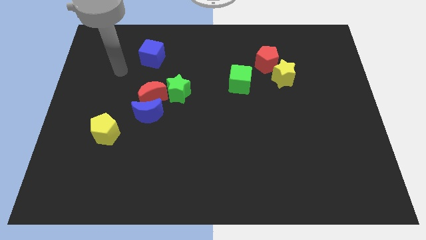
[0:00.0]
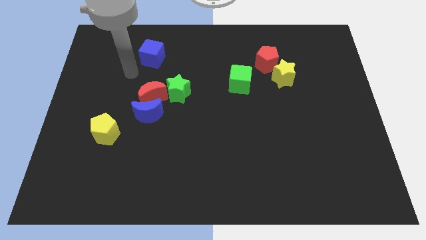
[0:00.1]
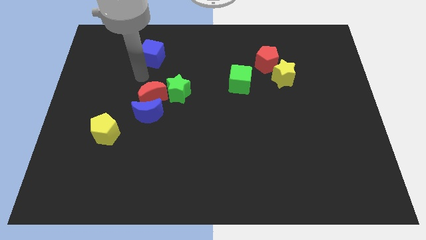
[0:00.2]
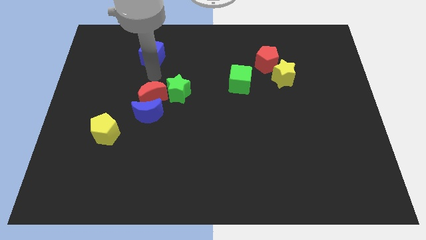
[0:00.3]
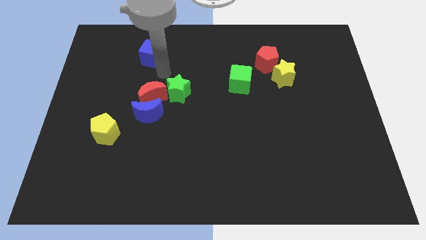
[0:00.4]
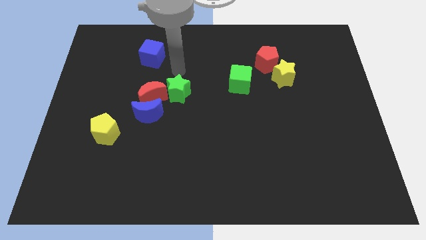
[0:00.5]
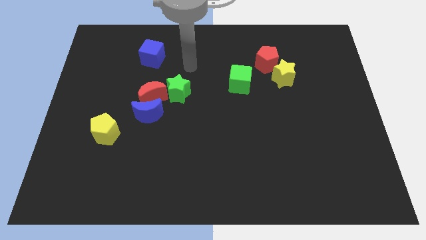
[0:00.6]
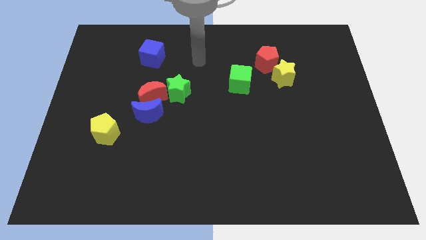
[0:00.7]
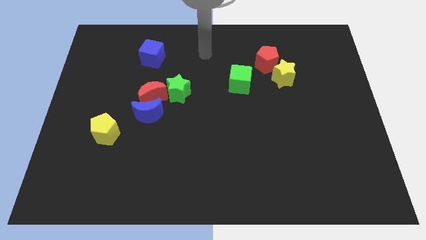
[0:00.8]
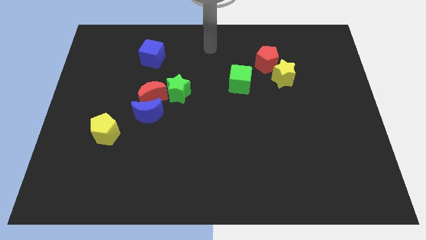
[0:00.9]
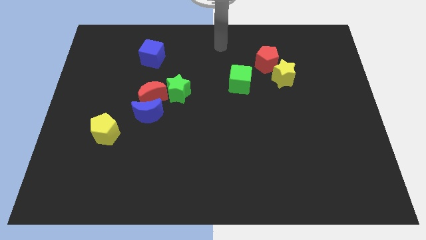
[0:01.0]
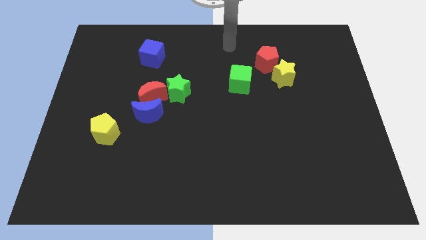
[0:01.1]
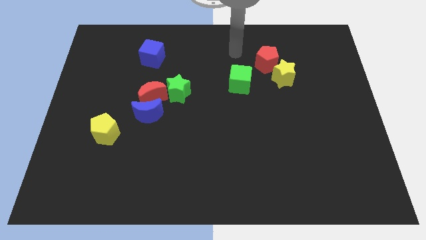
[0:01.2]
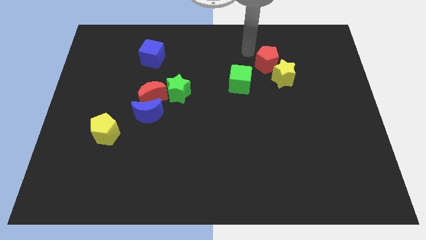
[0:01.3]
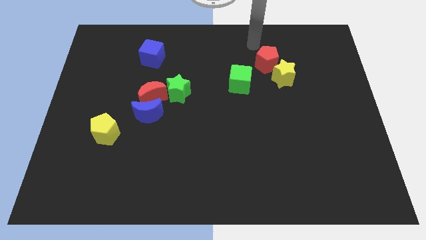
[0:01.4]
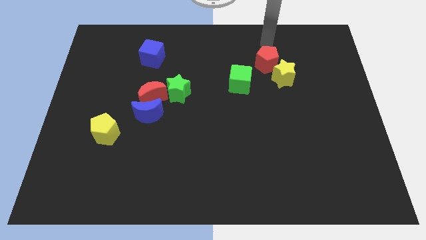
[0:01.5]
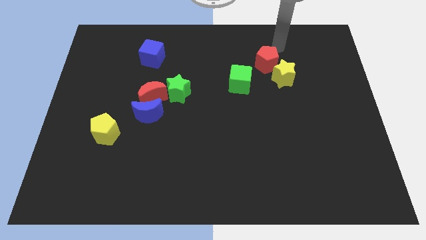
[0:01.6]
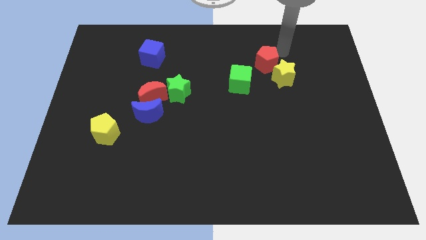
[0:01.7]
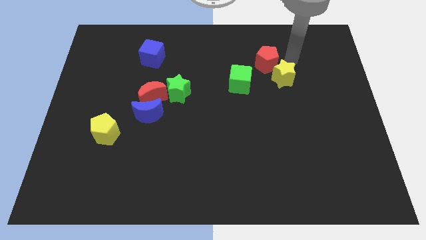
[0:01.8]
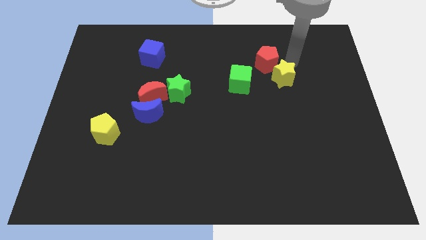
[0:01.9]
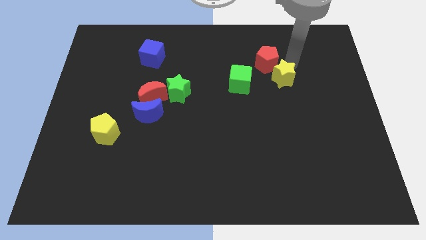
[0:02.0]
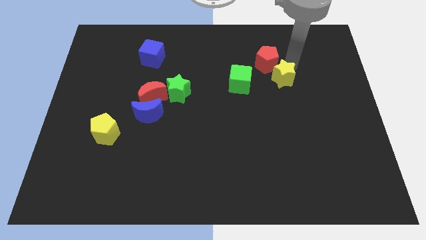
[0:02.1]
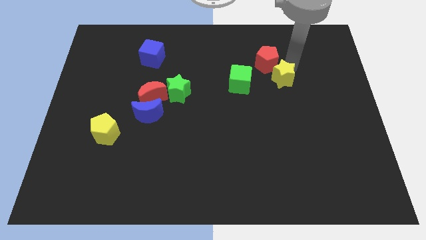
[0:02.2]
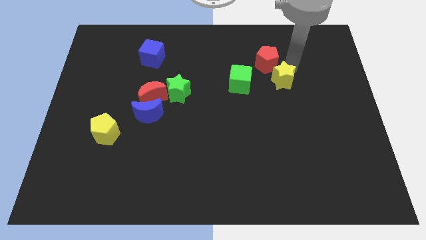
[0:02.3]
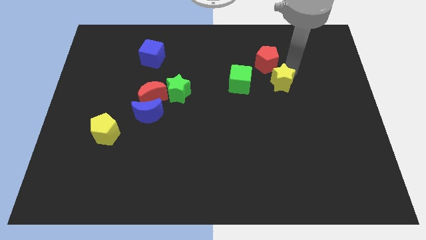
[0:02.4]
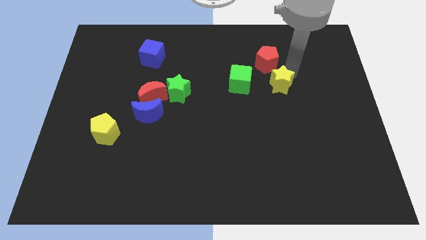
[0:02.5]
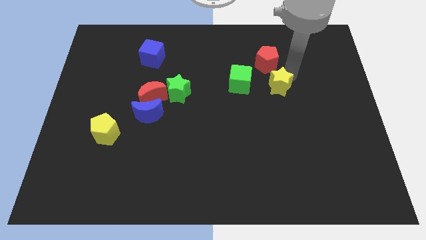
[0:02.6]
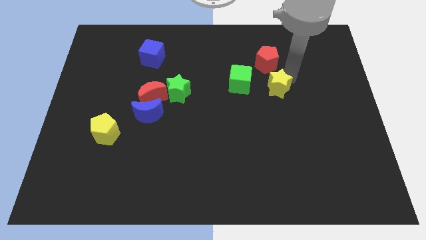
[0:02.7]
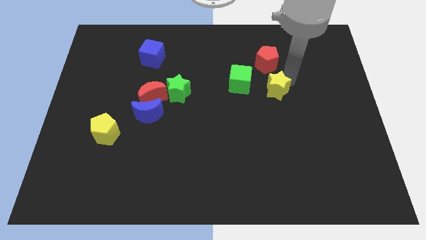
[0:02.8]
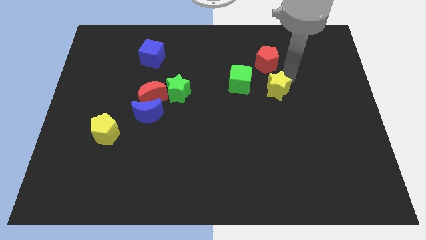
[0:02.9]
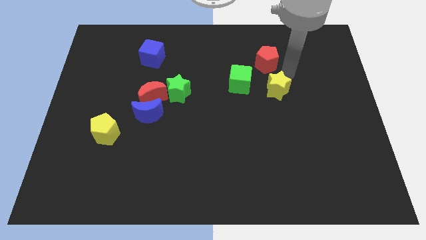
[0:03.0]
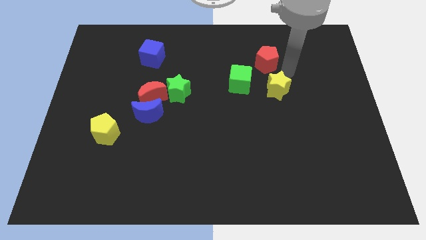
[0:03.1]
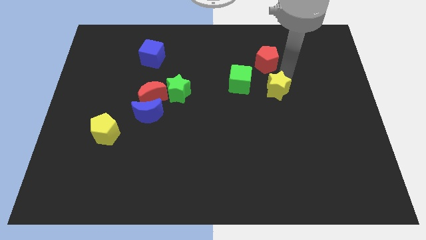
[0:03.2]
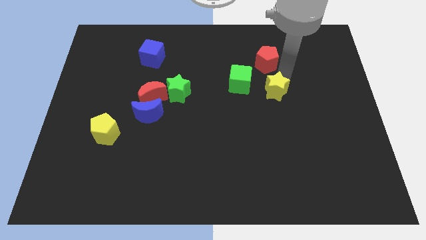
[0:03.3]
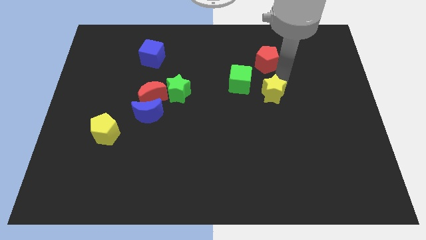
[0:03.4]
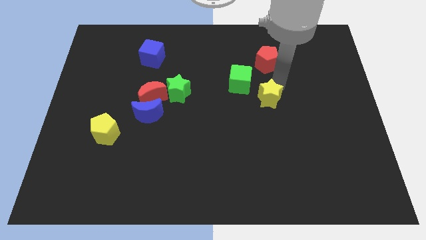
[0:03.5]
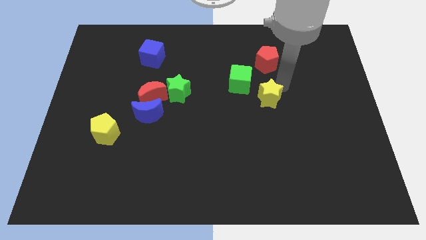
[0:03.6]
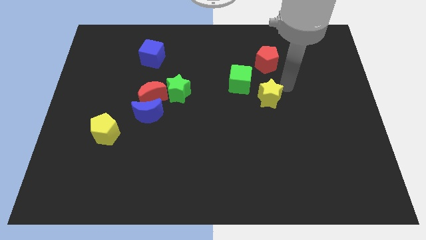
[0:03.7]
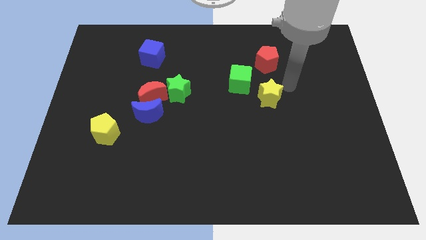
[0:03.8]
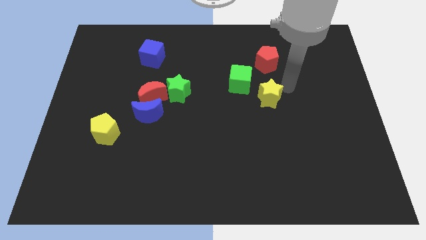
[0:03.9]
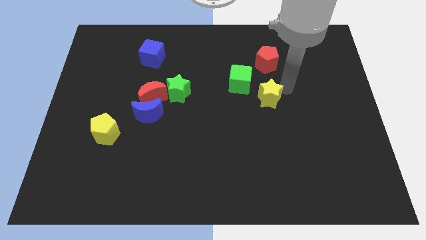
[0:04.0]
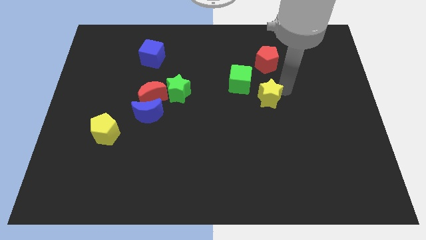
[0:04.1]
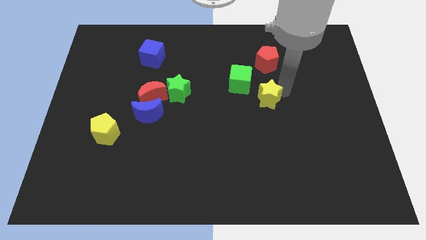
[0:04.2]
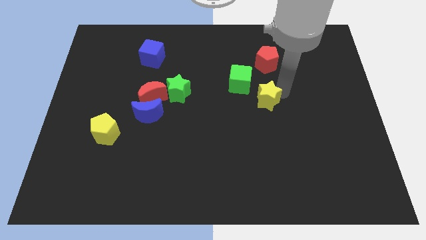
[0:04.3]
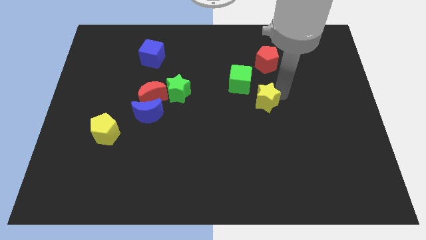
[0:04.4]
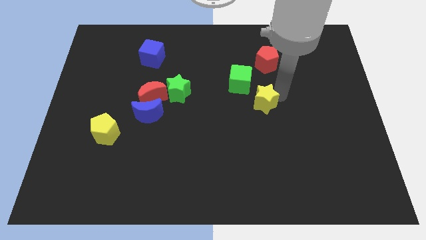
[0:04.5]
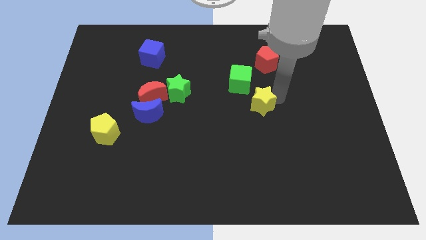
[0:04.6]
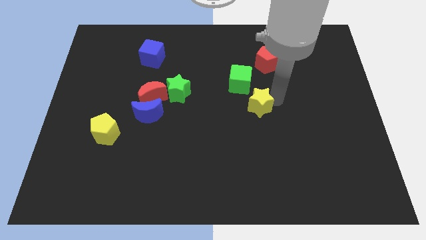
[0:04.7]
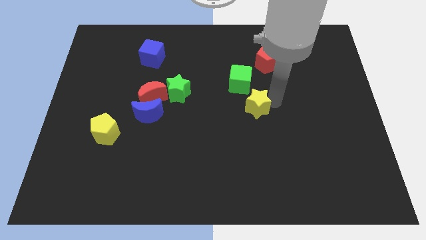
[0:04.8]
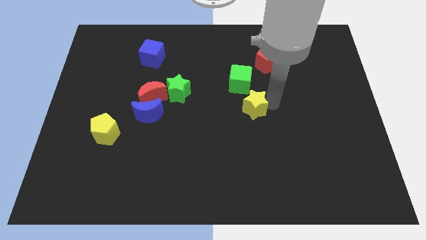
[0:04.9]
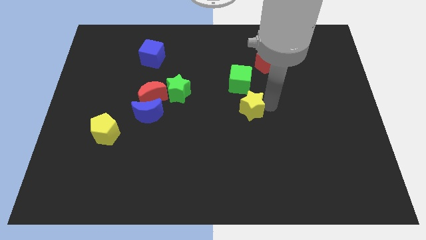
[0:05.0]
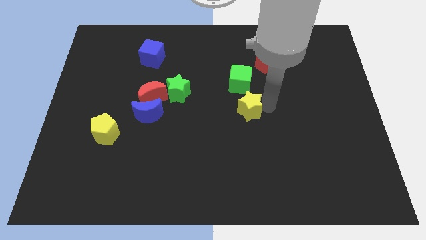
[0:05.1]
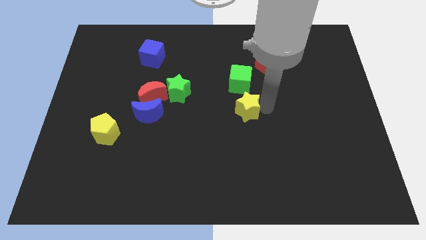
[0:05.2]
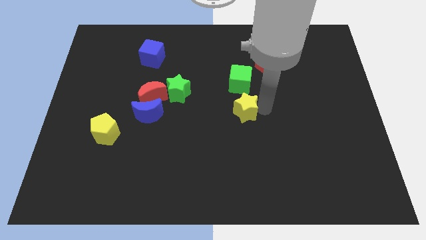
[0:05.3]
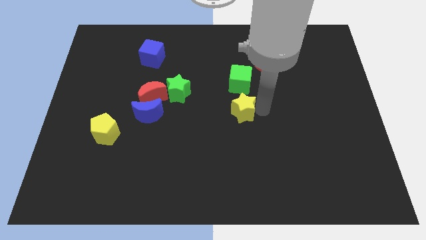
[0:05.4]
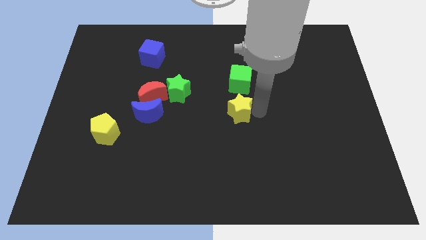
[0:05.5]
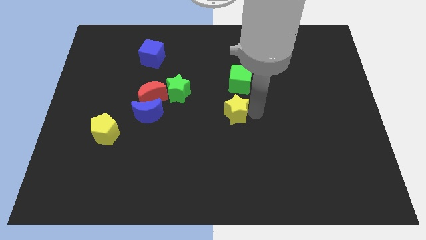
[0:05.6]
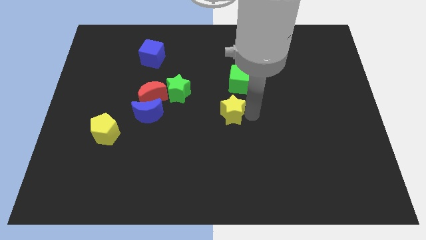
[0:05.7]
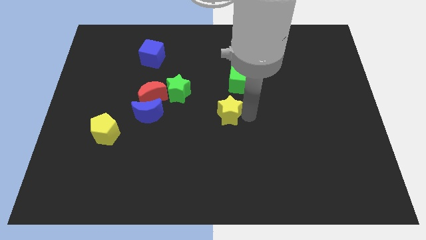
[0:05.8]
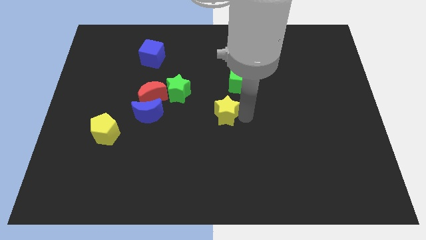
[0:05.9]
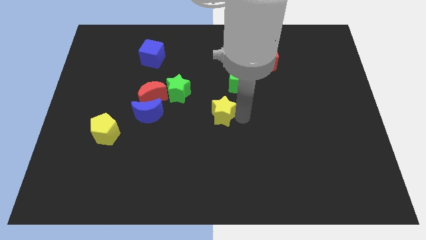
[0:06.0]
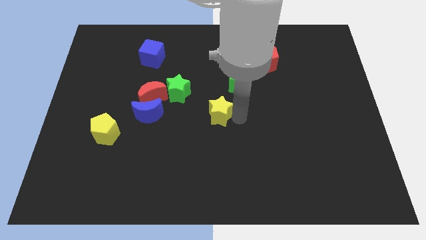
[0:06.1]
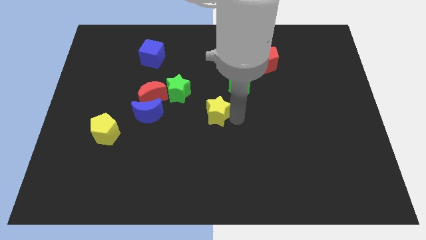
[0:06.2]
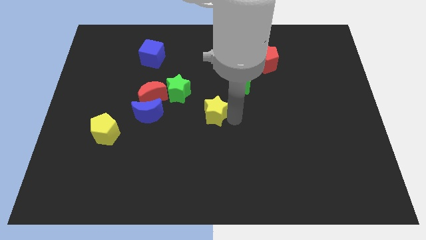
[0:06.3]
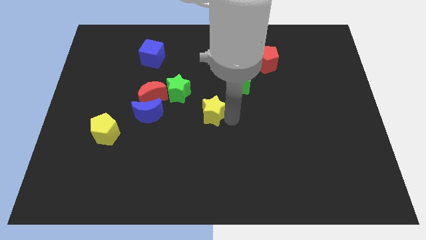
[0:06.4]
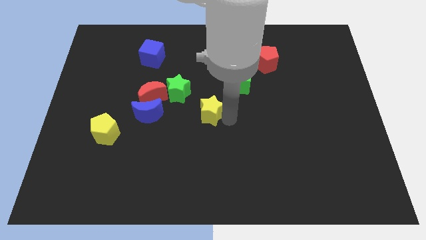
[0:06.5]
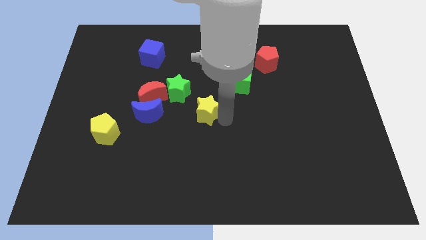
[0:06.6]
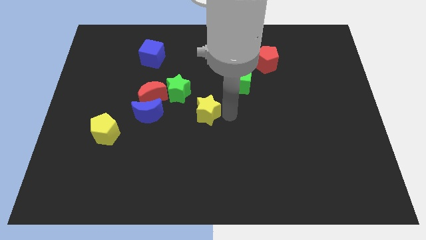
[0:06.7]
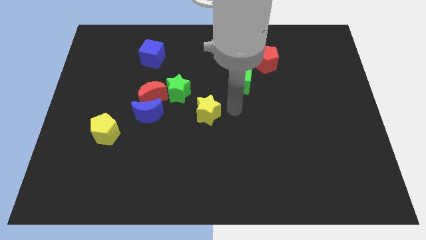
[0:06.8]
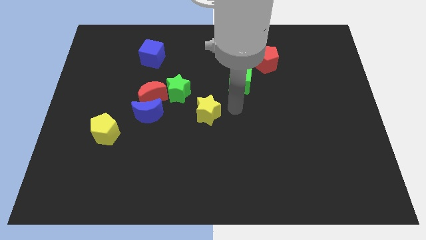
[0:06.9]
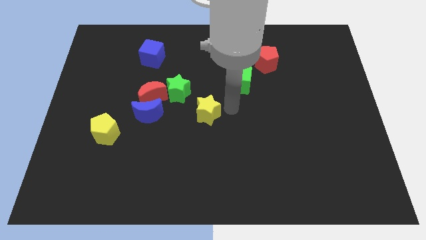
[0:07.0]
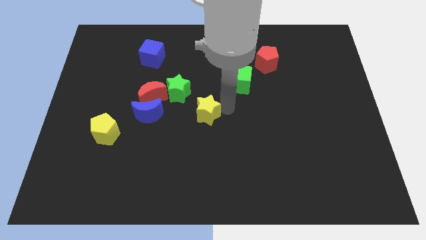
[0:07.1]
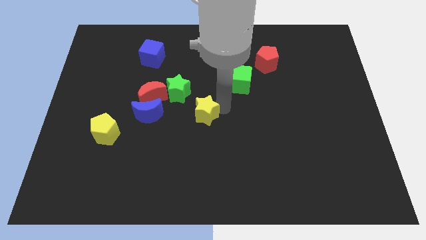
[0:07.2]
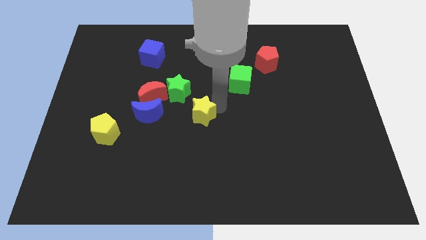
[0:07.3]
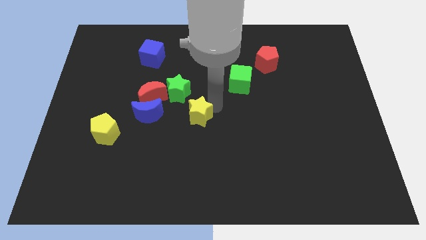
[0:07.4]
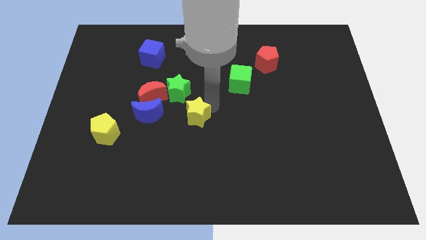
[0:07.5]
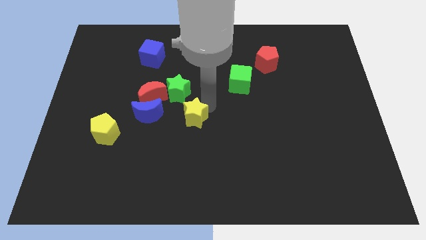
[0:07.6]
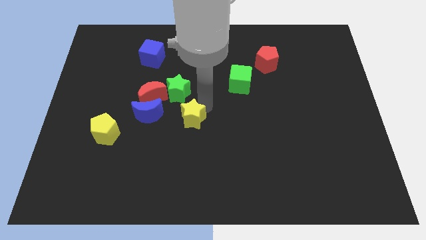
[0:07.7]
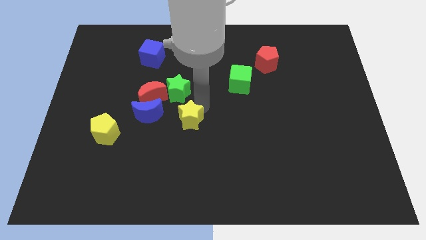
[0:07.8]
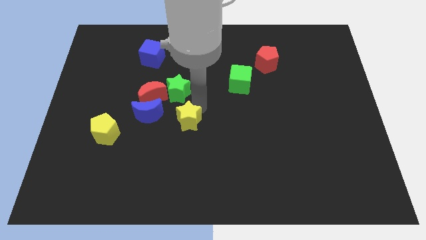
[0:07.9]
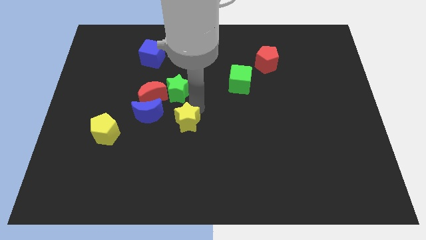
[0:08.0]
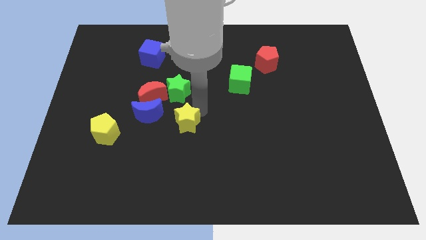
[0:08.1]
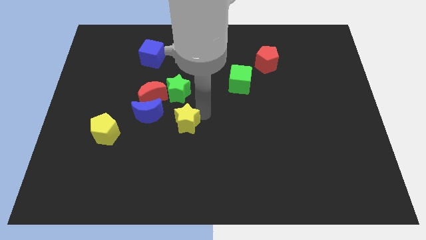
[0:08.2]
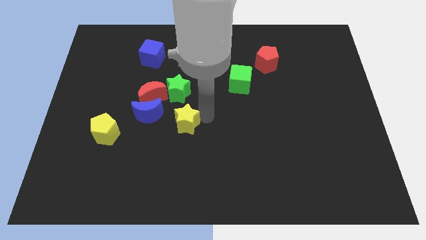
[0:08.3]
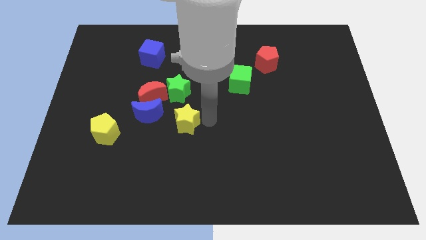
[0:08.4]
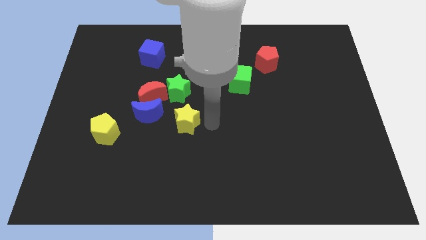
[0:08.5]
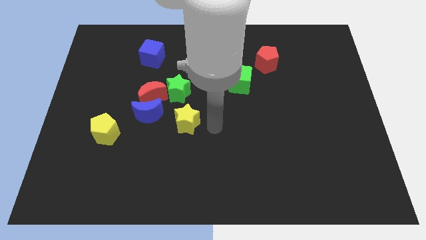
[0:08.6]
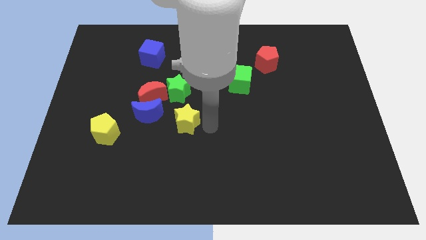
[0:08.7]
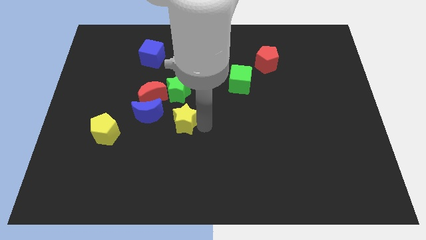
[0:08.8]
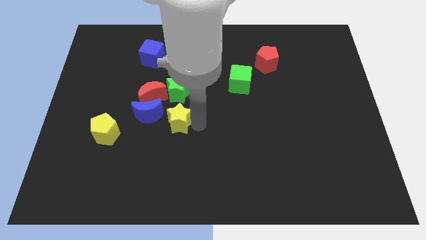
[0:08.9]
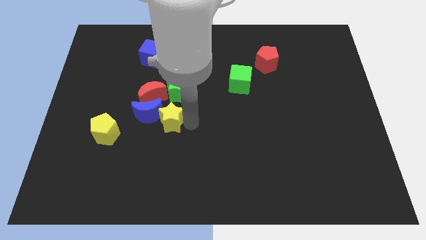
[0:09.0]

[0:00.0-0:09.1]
move the yellow star close to the blue moon
